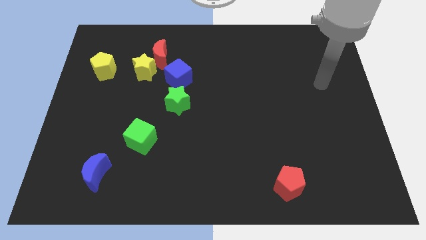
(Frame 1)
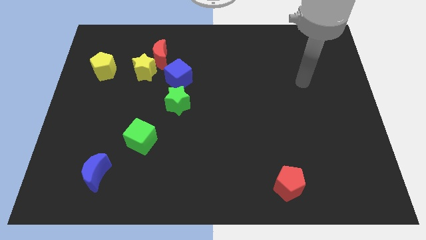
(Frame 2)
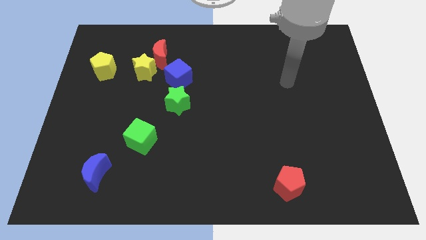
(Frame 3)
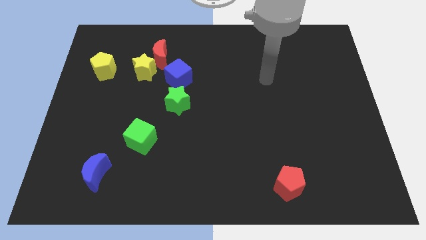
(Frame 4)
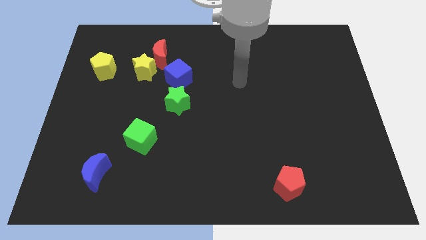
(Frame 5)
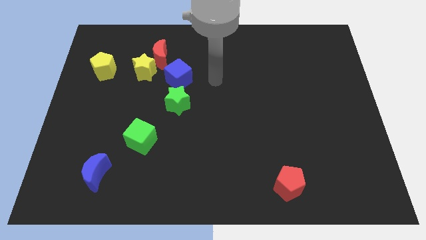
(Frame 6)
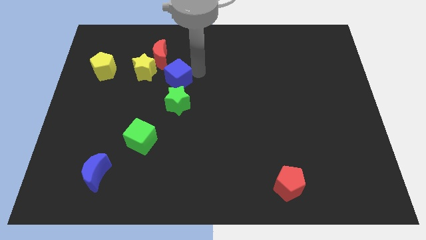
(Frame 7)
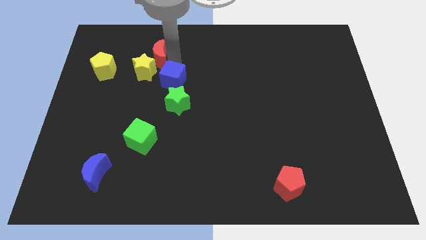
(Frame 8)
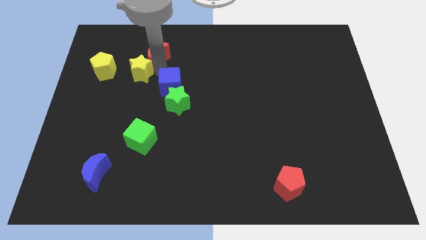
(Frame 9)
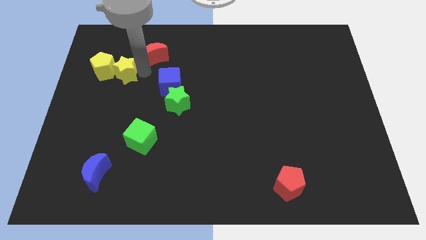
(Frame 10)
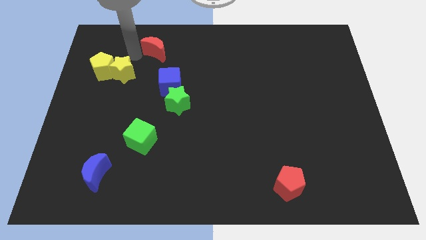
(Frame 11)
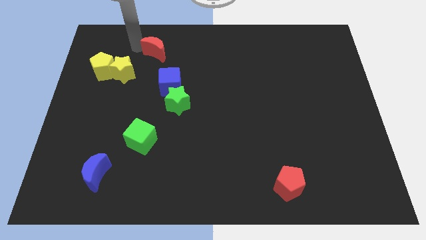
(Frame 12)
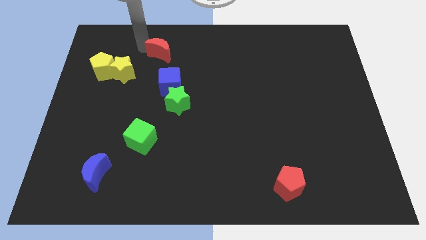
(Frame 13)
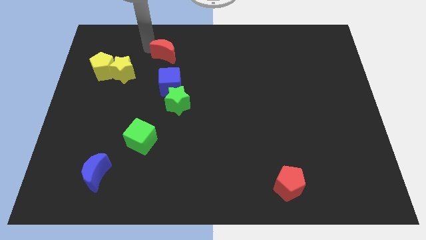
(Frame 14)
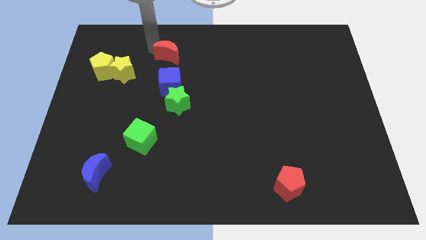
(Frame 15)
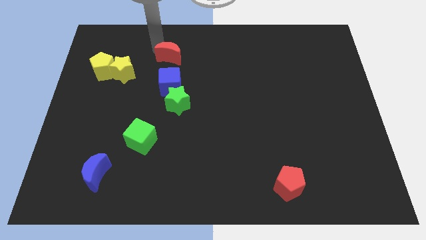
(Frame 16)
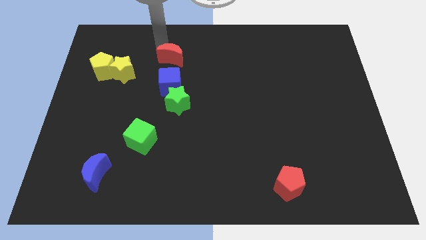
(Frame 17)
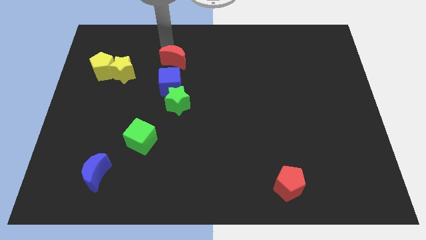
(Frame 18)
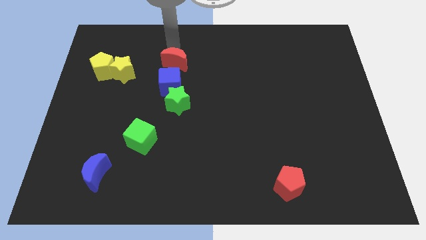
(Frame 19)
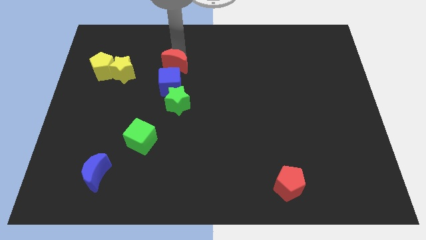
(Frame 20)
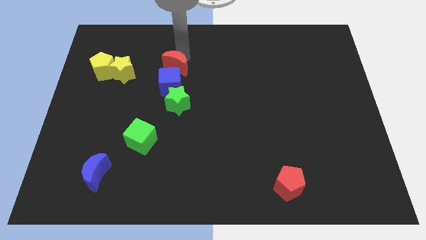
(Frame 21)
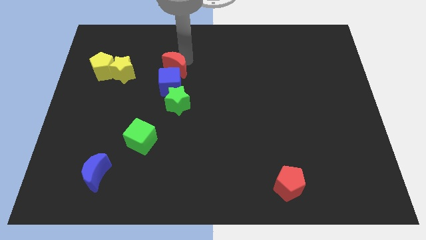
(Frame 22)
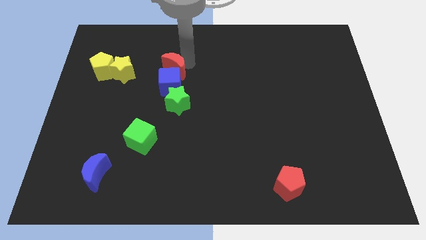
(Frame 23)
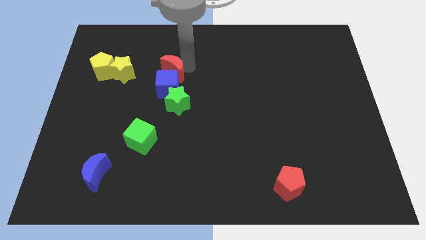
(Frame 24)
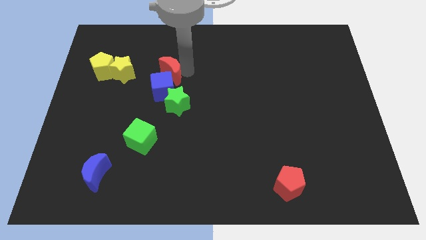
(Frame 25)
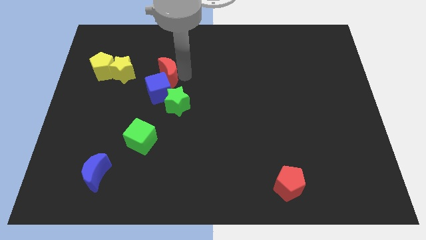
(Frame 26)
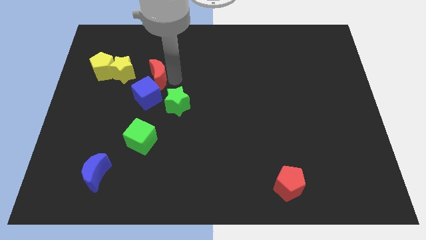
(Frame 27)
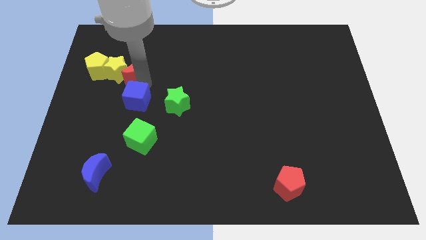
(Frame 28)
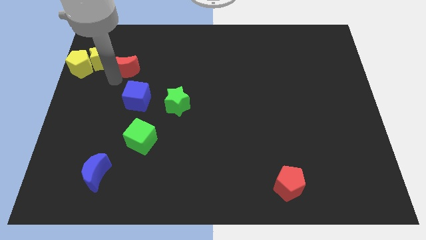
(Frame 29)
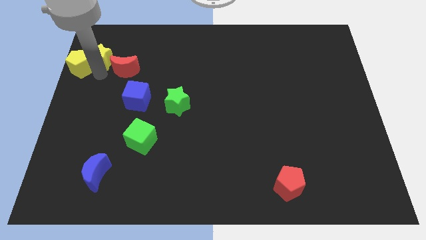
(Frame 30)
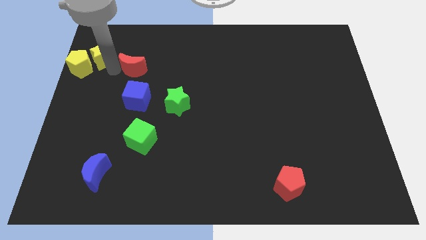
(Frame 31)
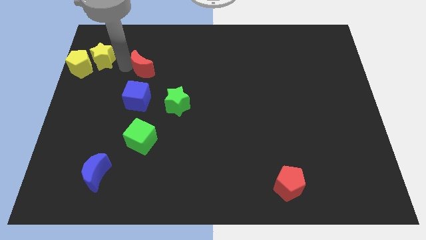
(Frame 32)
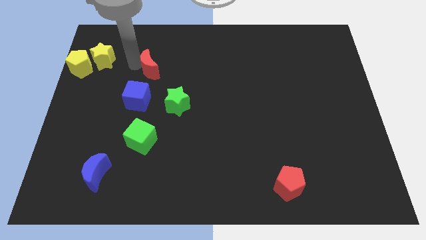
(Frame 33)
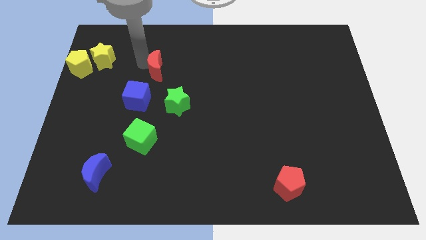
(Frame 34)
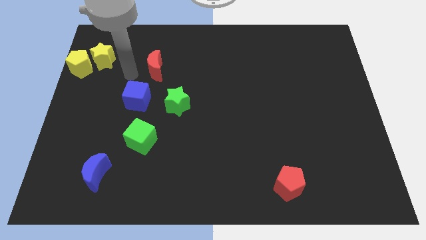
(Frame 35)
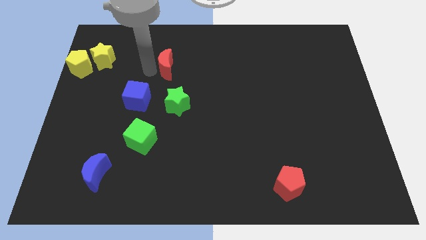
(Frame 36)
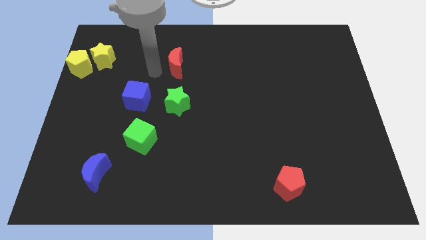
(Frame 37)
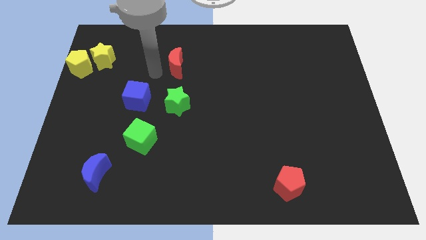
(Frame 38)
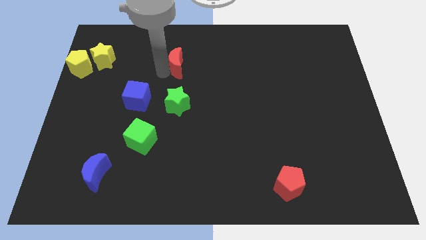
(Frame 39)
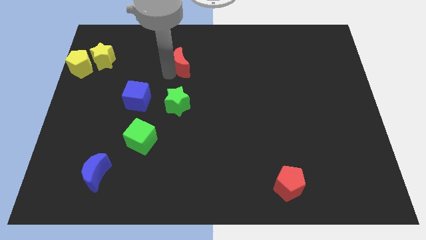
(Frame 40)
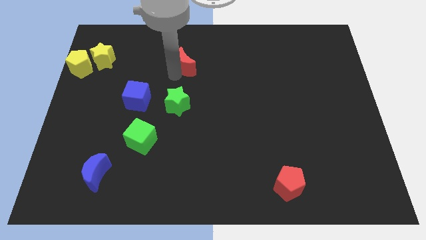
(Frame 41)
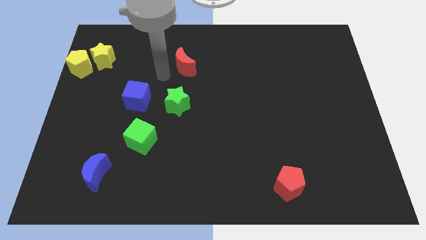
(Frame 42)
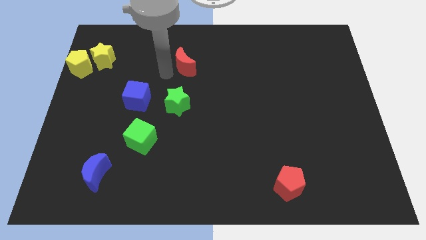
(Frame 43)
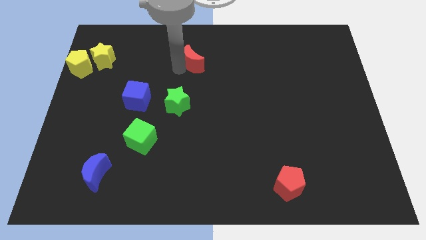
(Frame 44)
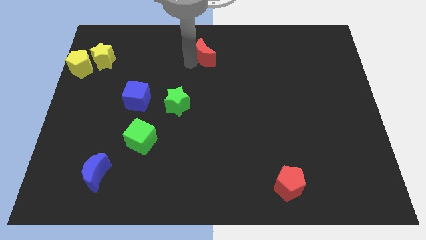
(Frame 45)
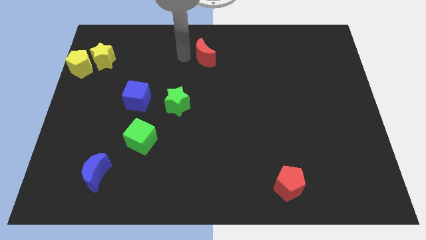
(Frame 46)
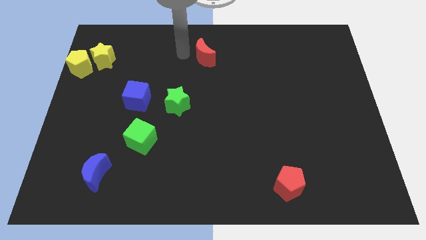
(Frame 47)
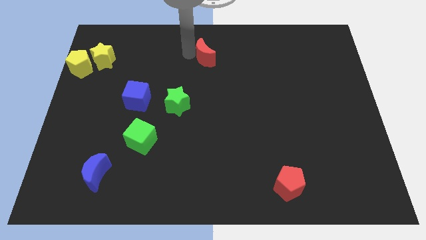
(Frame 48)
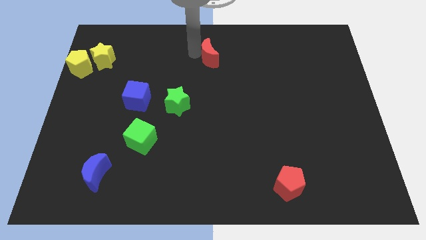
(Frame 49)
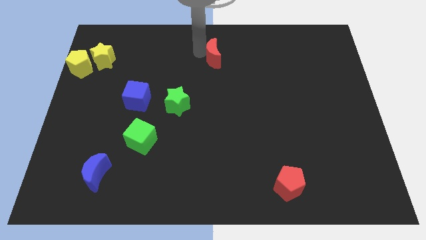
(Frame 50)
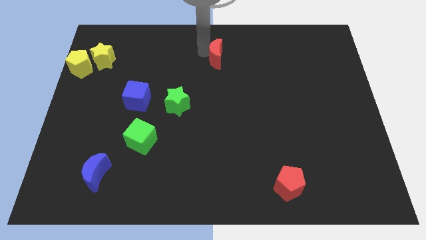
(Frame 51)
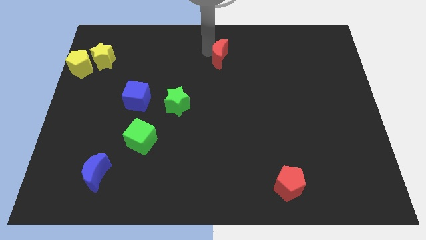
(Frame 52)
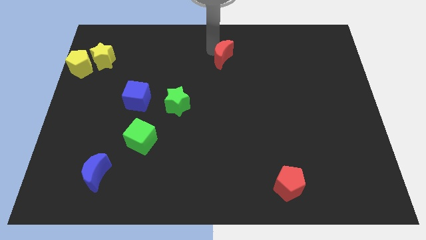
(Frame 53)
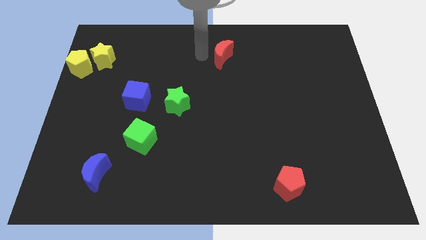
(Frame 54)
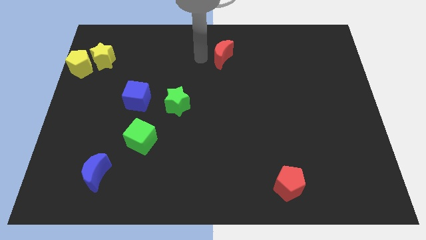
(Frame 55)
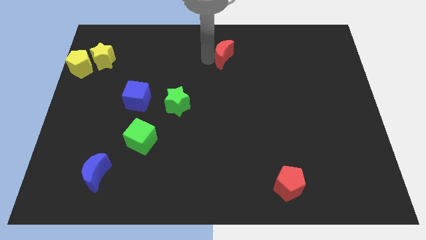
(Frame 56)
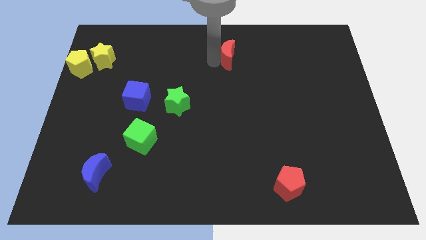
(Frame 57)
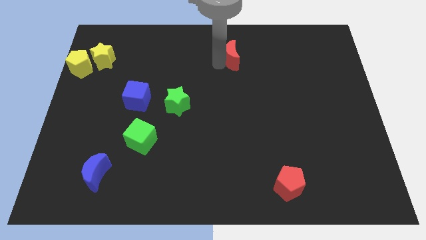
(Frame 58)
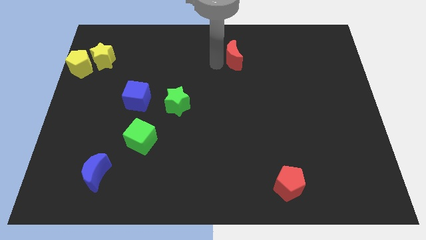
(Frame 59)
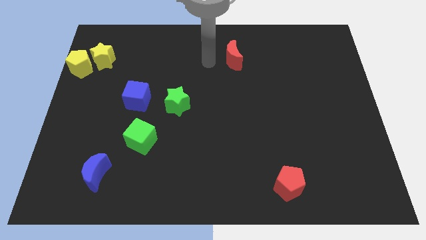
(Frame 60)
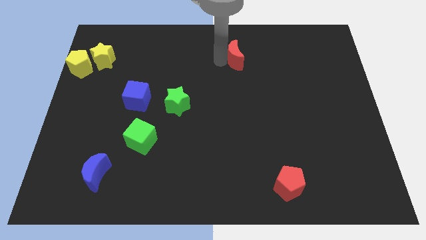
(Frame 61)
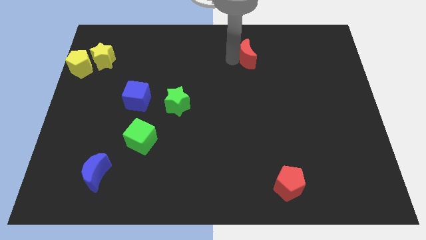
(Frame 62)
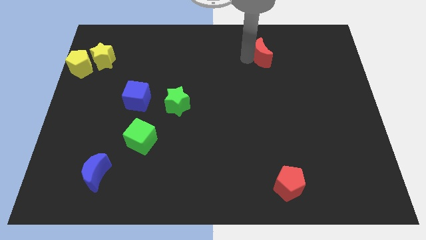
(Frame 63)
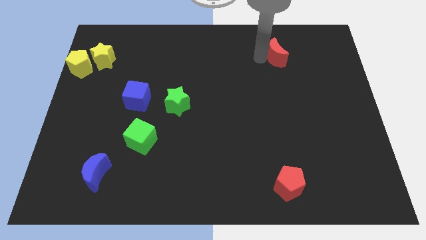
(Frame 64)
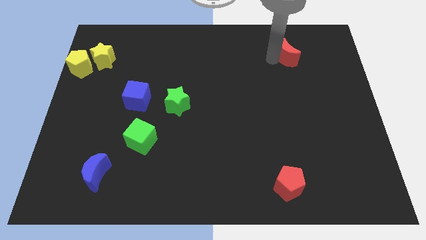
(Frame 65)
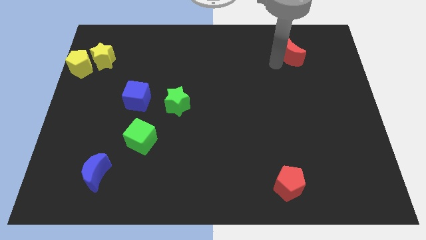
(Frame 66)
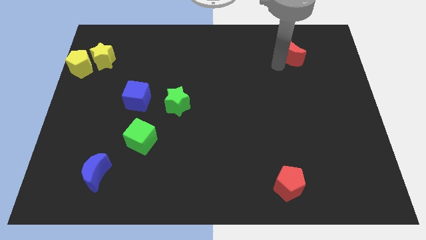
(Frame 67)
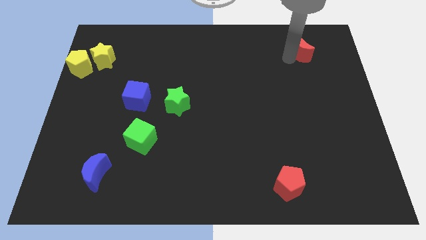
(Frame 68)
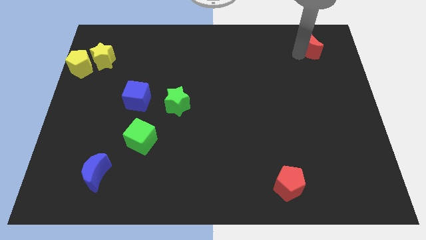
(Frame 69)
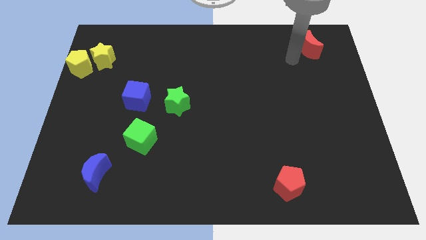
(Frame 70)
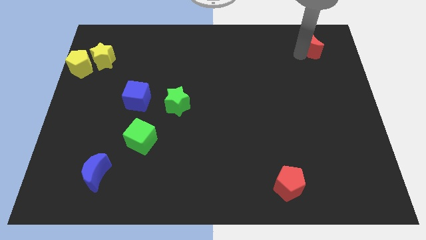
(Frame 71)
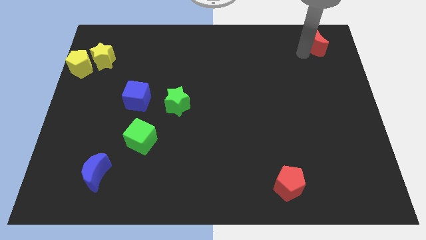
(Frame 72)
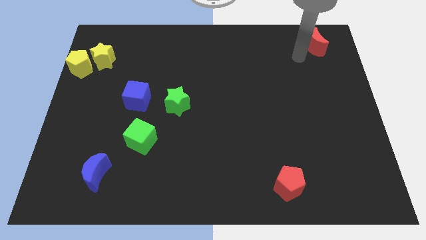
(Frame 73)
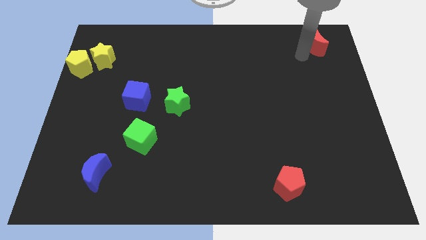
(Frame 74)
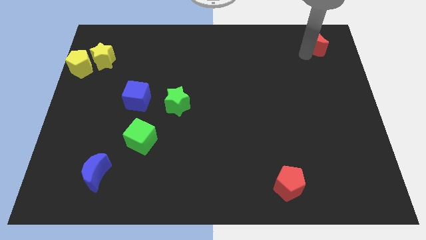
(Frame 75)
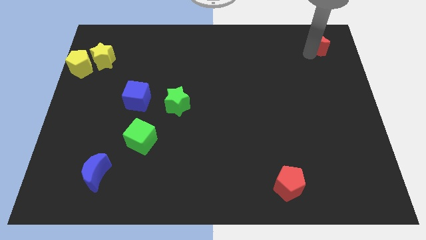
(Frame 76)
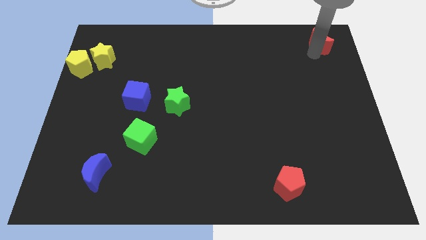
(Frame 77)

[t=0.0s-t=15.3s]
push the red moon to the top right of the board
